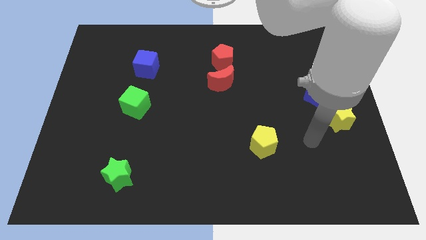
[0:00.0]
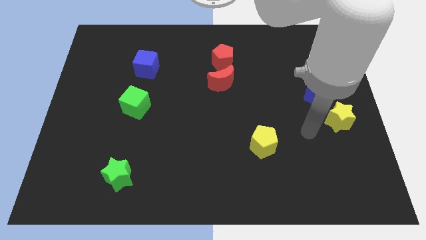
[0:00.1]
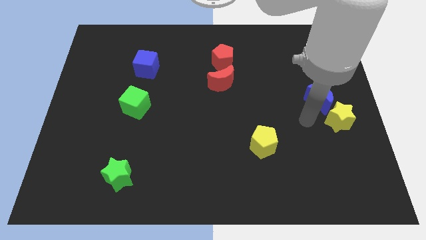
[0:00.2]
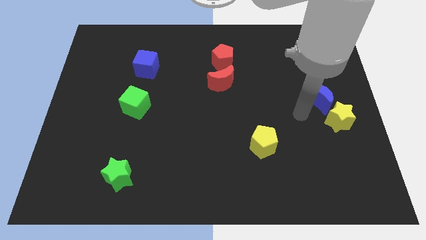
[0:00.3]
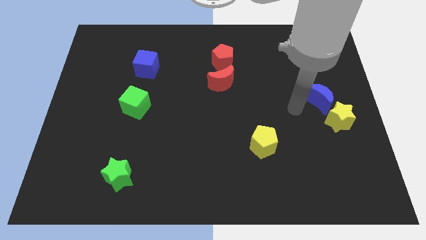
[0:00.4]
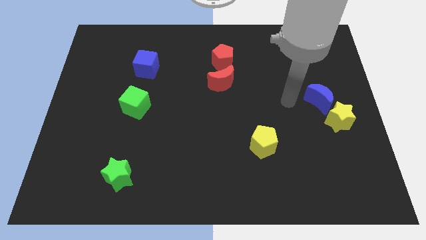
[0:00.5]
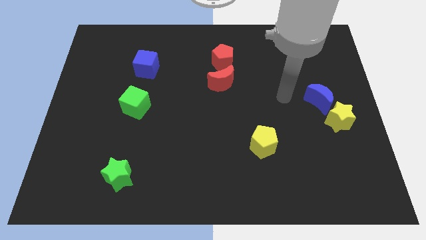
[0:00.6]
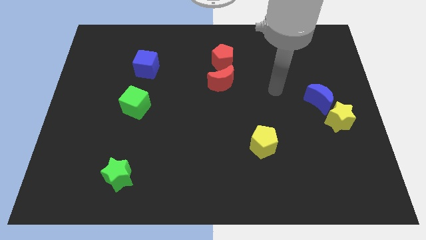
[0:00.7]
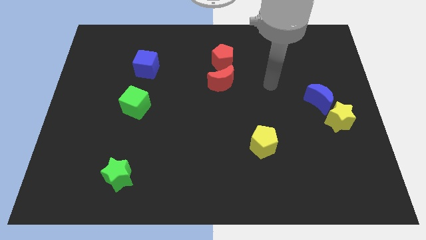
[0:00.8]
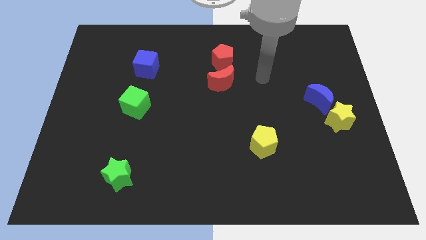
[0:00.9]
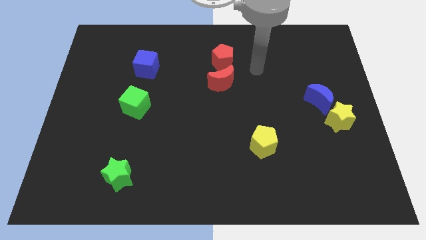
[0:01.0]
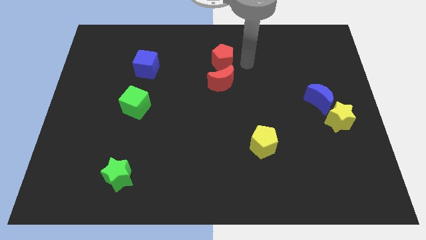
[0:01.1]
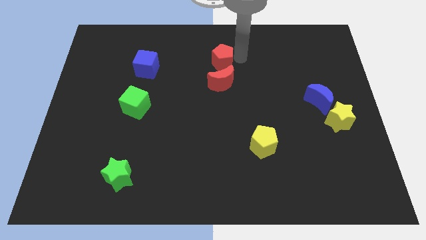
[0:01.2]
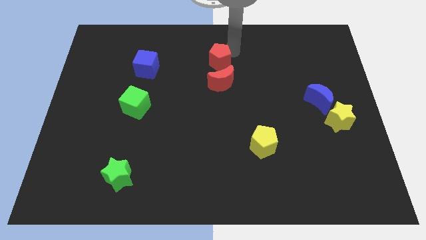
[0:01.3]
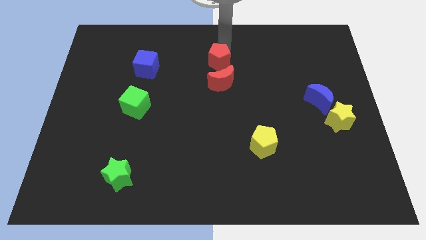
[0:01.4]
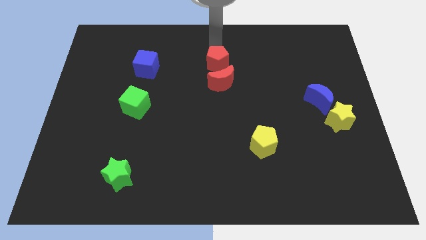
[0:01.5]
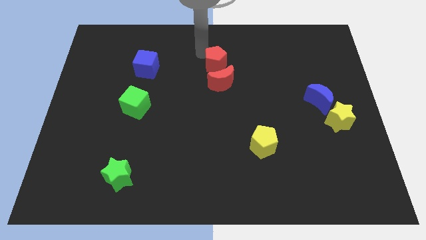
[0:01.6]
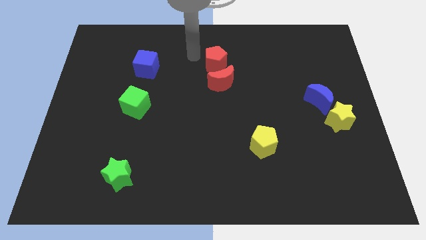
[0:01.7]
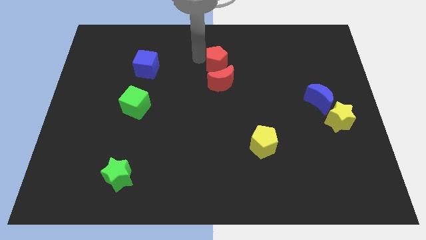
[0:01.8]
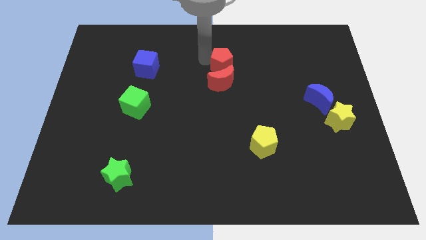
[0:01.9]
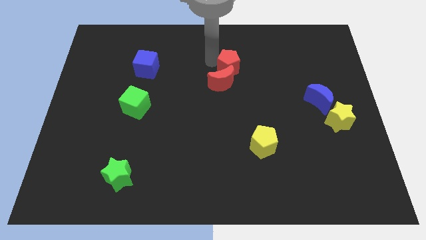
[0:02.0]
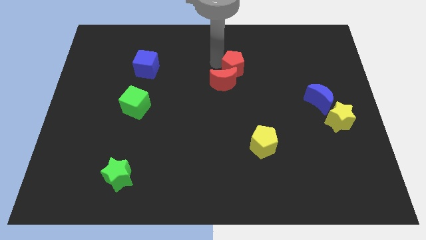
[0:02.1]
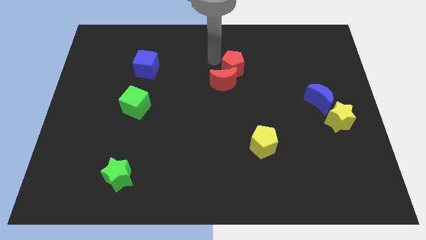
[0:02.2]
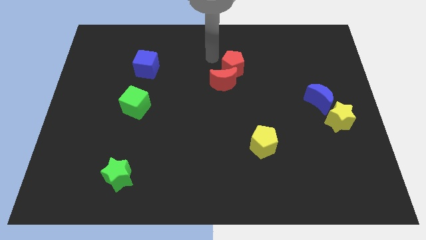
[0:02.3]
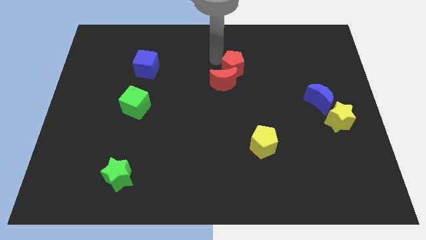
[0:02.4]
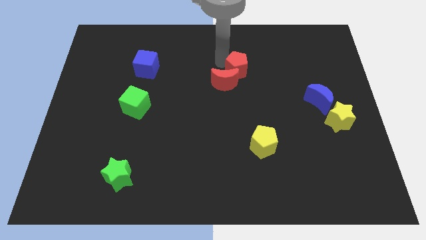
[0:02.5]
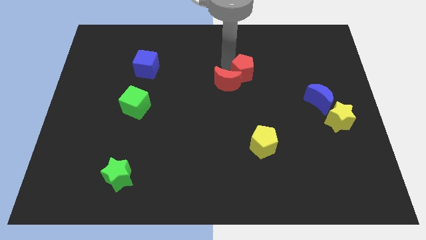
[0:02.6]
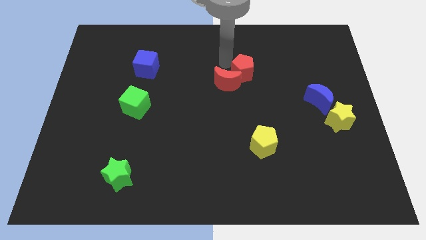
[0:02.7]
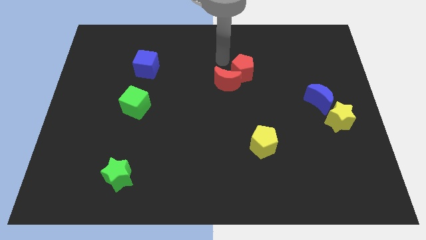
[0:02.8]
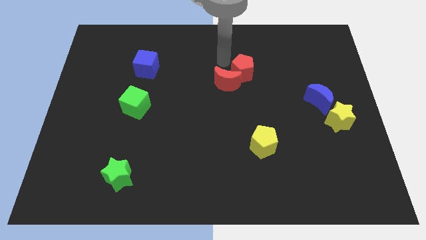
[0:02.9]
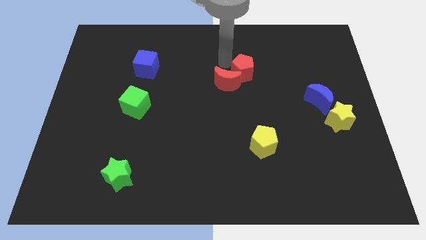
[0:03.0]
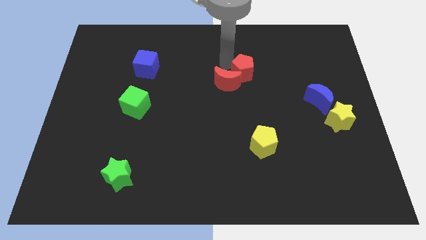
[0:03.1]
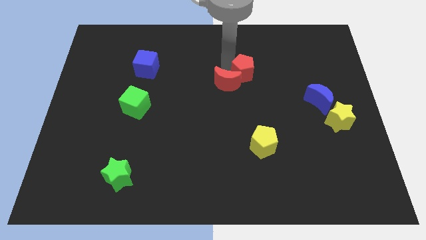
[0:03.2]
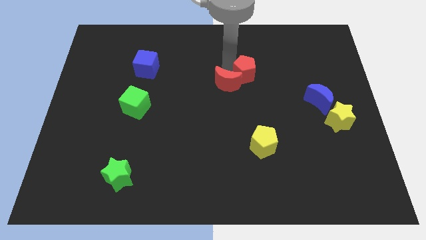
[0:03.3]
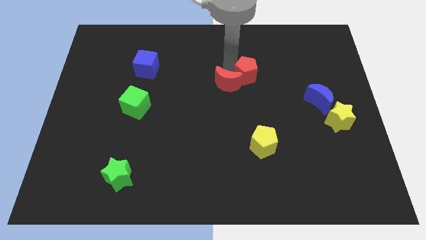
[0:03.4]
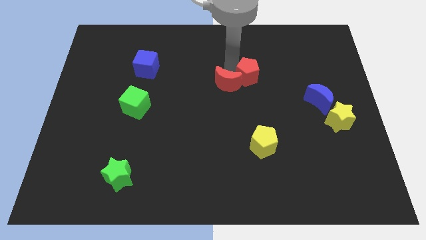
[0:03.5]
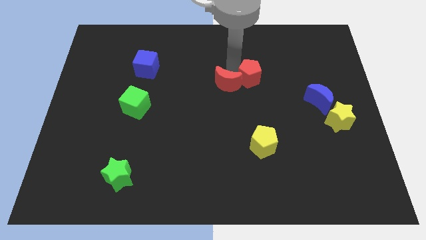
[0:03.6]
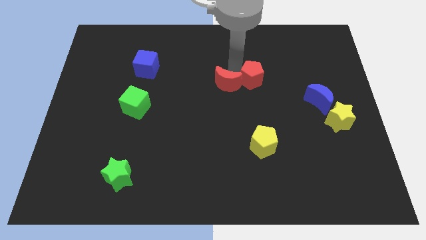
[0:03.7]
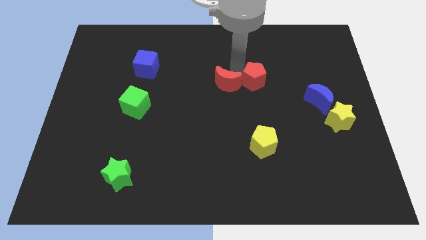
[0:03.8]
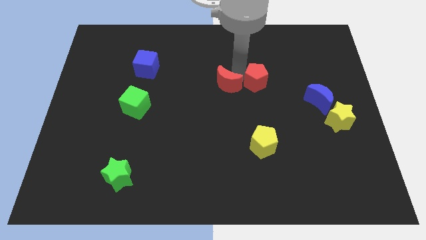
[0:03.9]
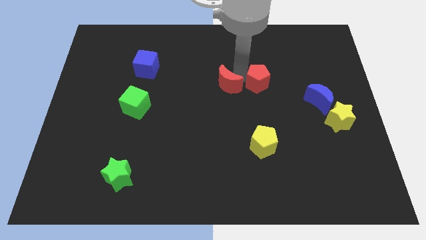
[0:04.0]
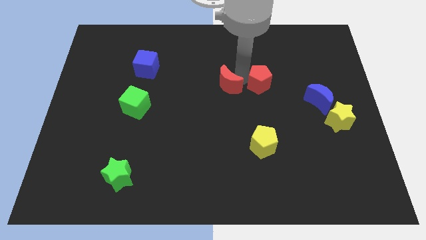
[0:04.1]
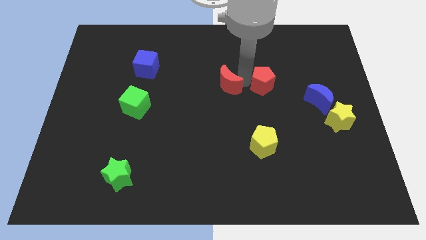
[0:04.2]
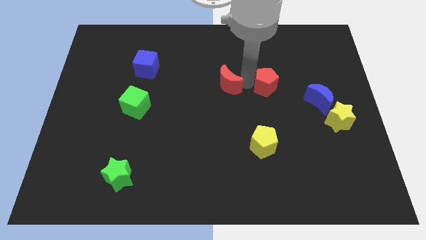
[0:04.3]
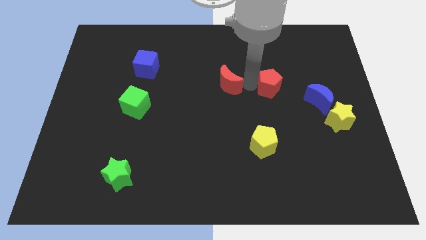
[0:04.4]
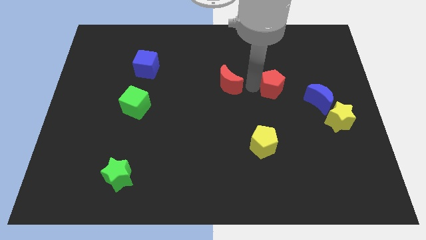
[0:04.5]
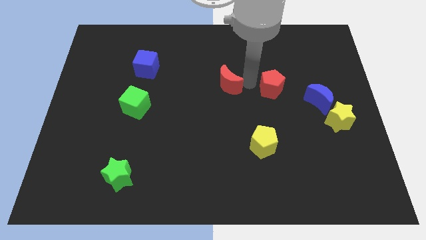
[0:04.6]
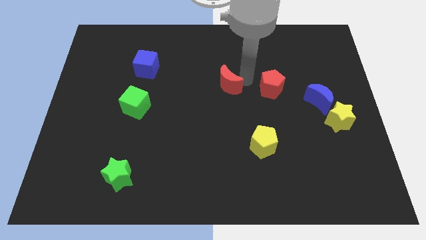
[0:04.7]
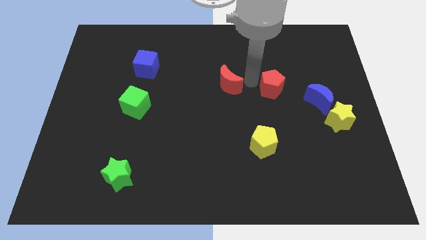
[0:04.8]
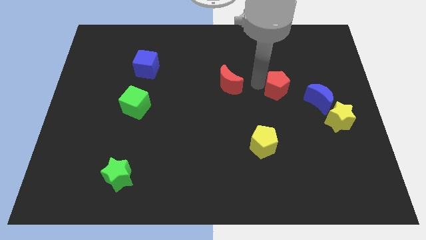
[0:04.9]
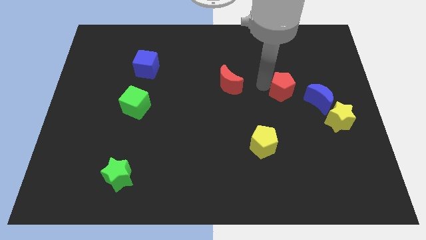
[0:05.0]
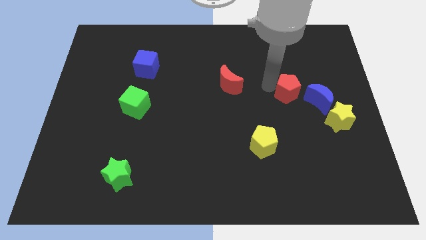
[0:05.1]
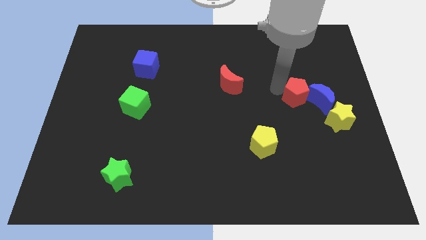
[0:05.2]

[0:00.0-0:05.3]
put the red pentagon to the blue moon

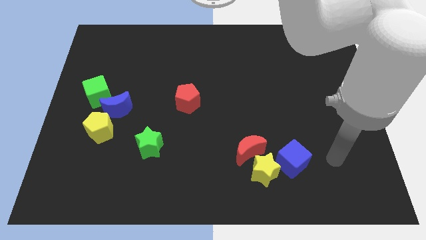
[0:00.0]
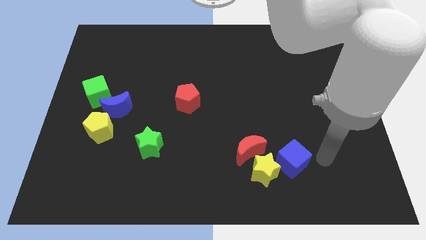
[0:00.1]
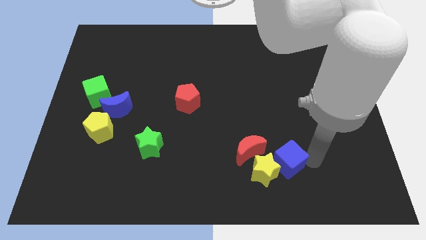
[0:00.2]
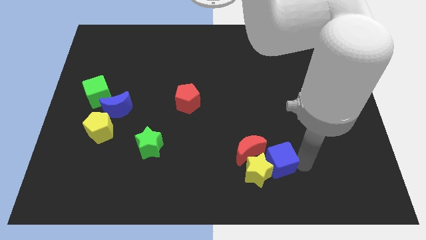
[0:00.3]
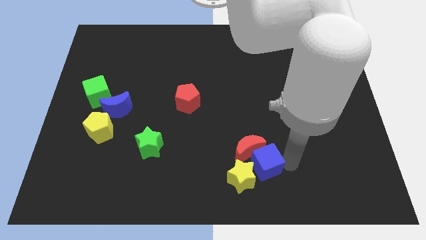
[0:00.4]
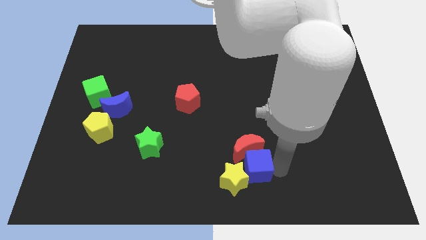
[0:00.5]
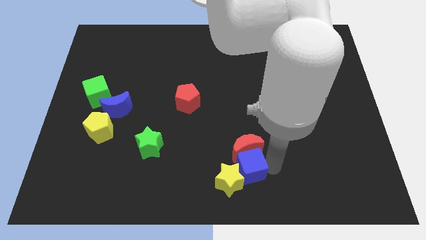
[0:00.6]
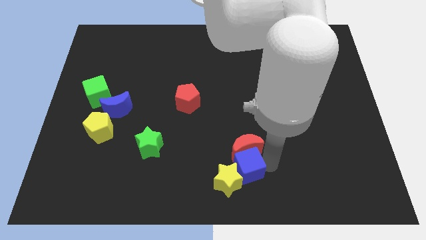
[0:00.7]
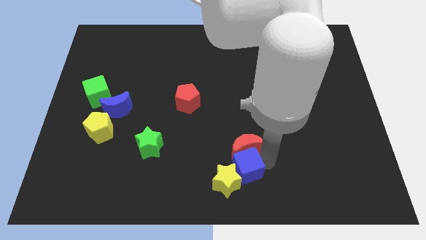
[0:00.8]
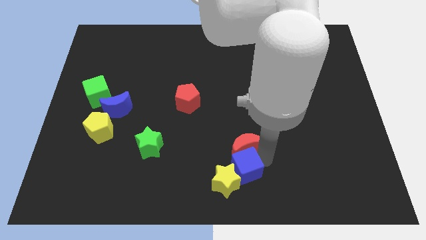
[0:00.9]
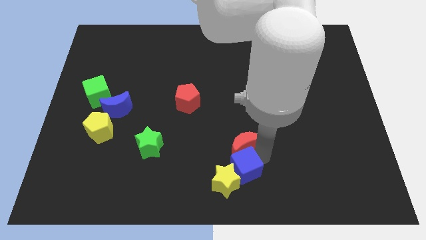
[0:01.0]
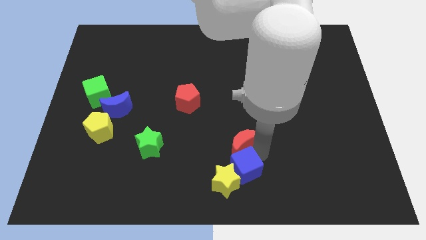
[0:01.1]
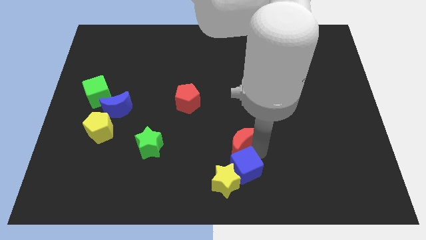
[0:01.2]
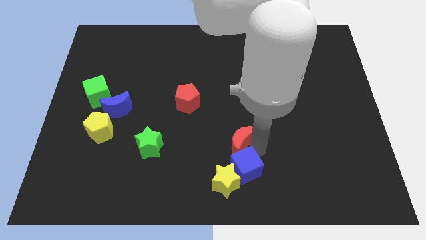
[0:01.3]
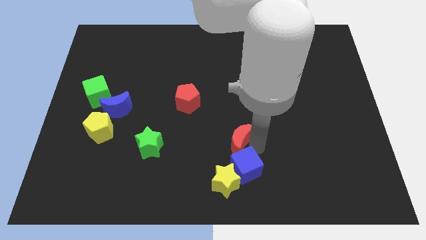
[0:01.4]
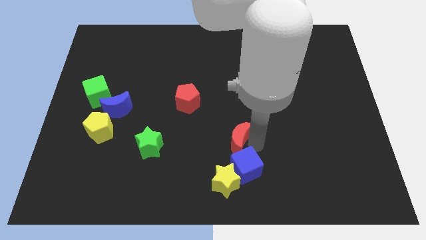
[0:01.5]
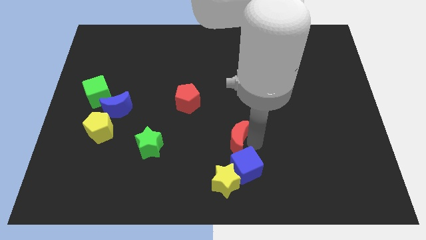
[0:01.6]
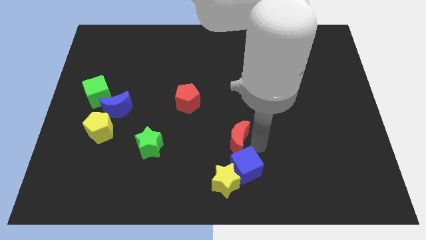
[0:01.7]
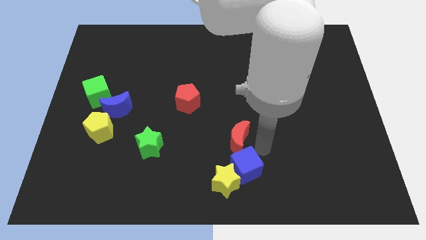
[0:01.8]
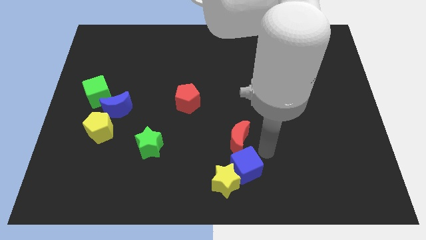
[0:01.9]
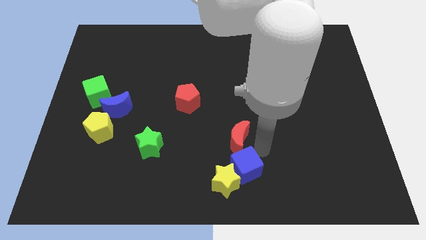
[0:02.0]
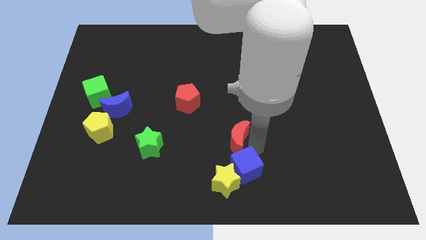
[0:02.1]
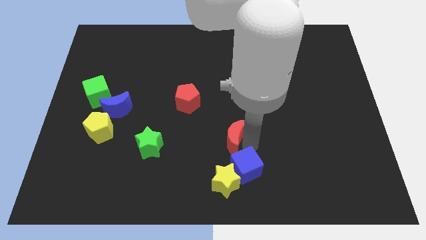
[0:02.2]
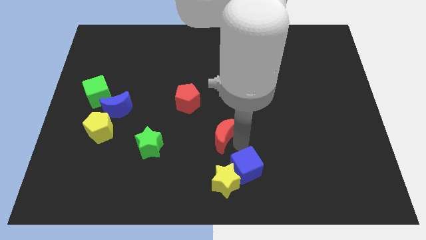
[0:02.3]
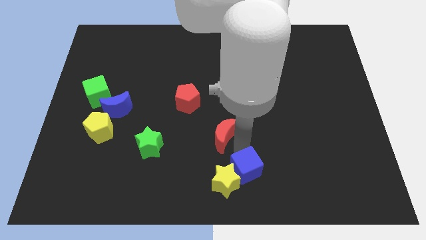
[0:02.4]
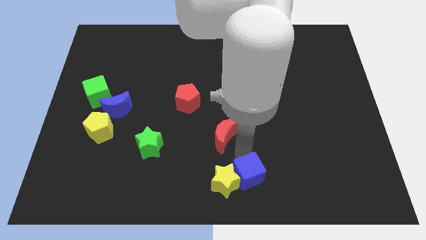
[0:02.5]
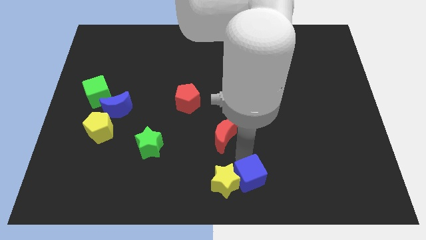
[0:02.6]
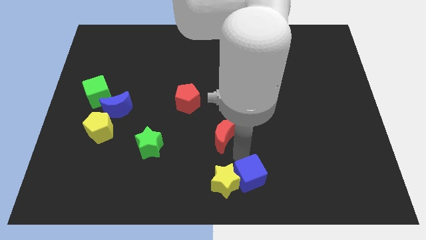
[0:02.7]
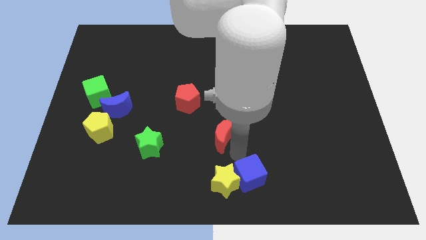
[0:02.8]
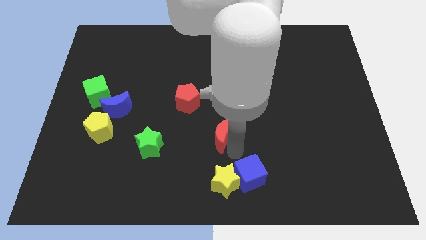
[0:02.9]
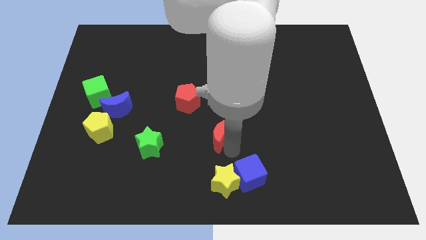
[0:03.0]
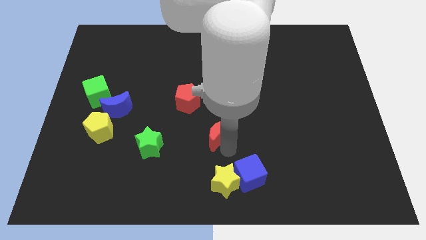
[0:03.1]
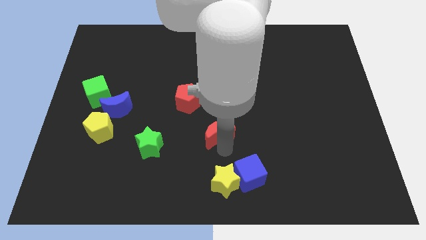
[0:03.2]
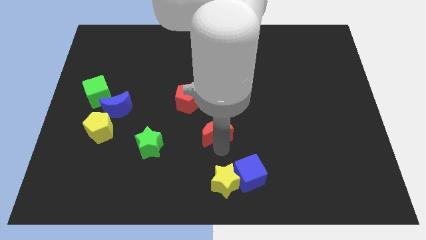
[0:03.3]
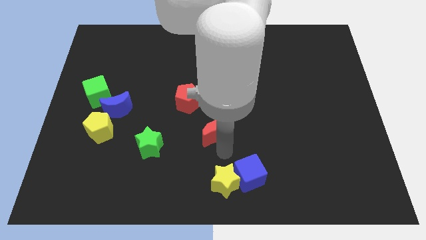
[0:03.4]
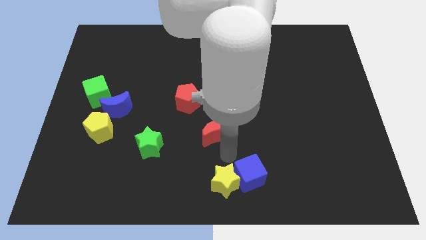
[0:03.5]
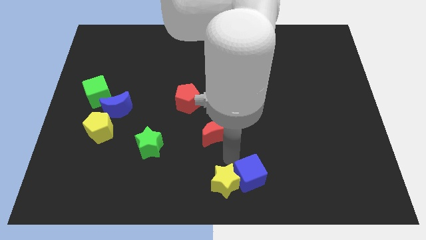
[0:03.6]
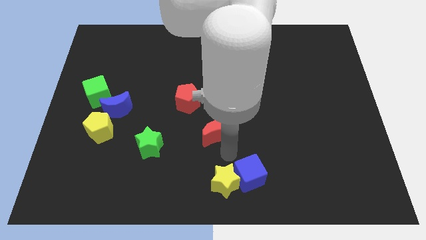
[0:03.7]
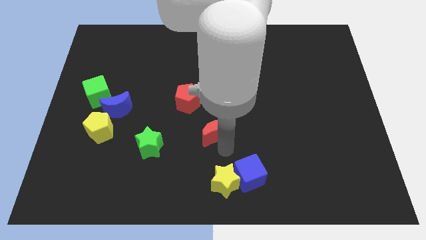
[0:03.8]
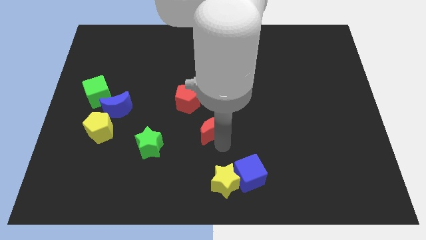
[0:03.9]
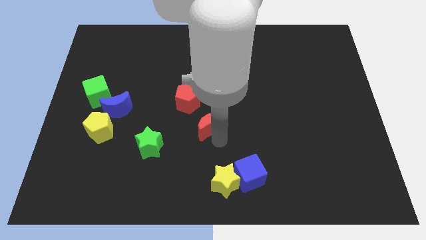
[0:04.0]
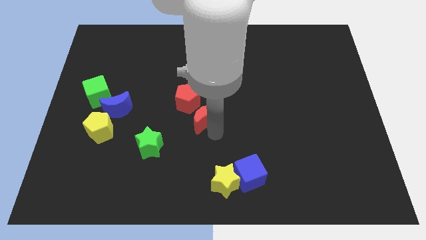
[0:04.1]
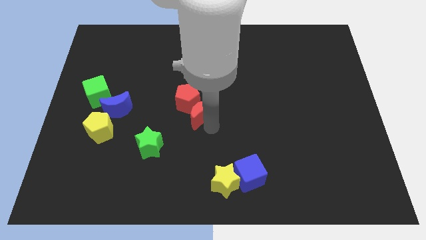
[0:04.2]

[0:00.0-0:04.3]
slide the red moon close to the red pentagon
